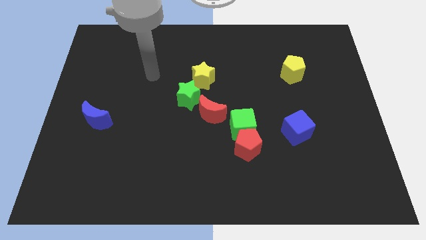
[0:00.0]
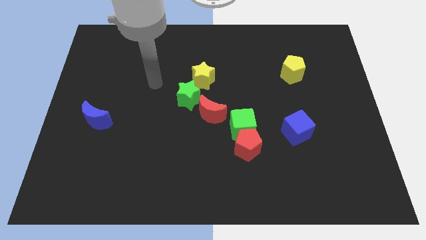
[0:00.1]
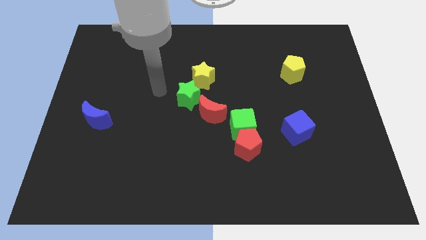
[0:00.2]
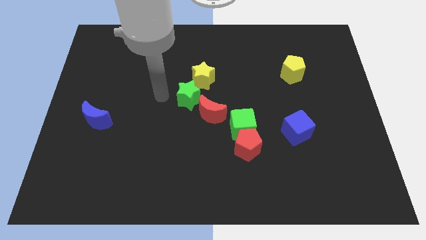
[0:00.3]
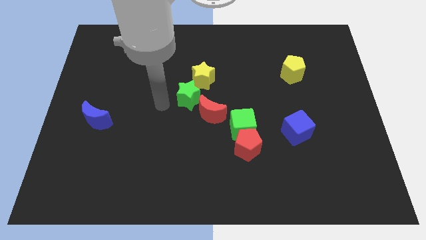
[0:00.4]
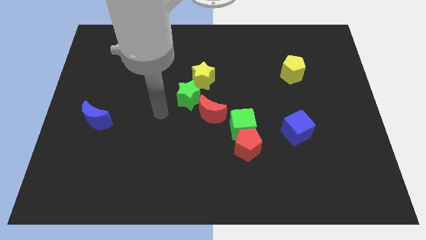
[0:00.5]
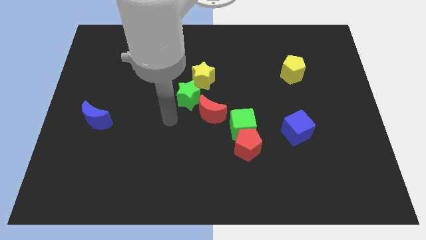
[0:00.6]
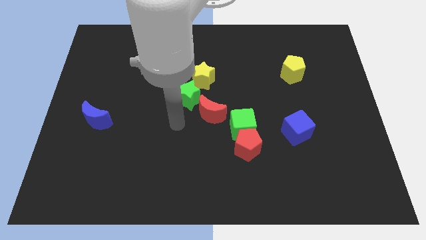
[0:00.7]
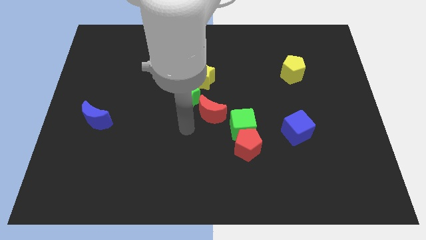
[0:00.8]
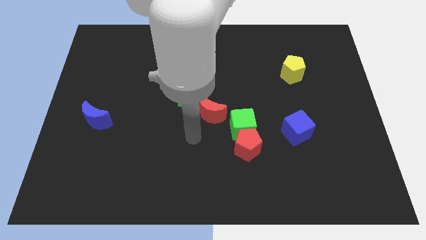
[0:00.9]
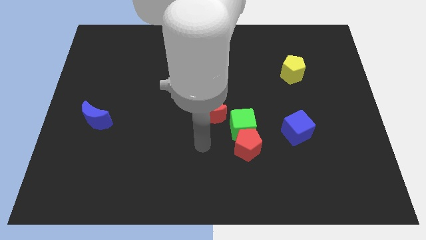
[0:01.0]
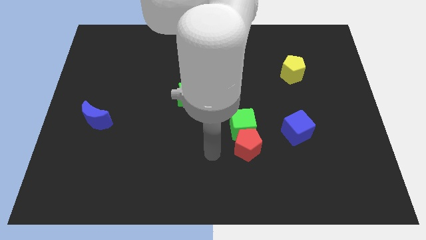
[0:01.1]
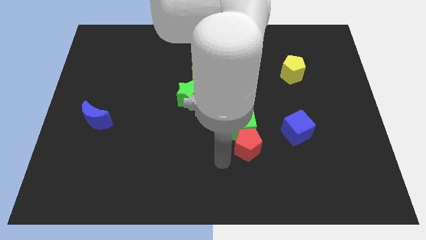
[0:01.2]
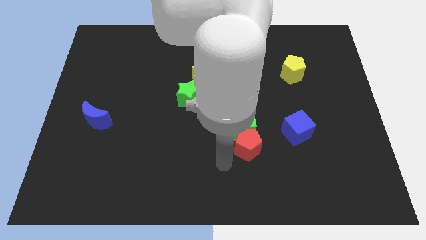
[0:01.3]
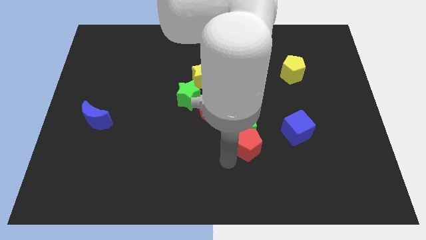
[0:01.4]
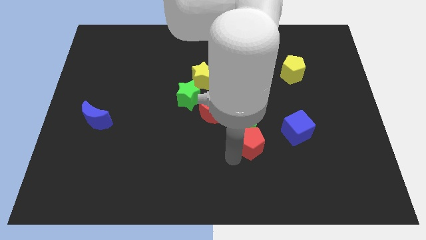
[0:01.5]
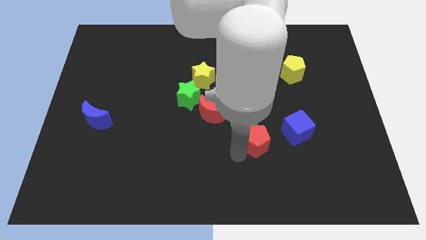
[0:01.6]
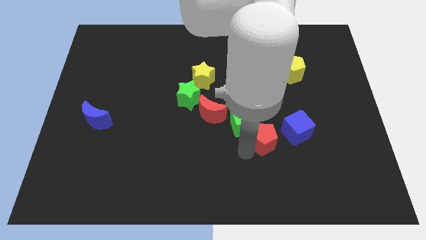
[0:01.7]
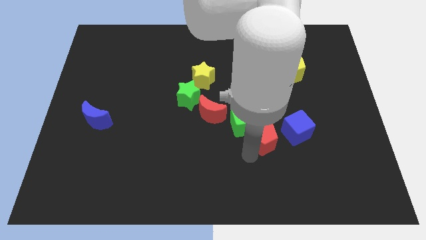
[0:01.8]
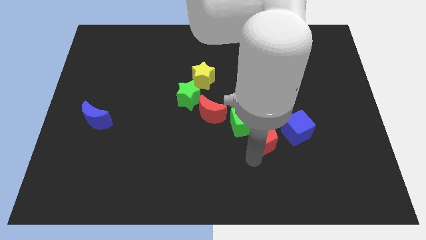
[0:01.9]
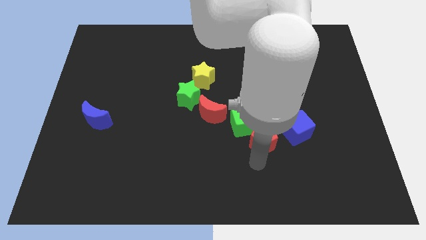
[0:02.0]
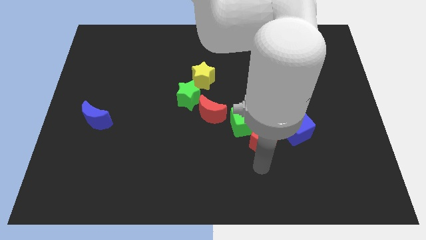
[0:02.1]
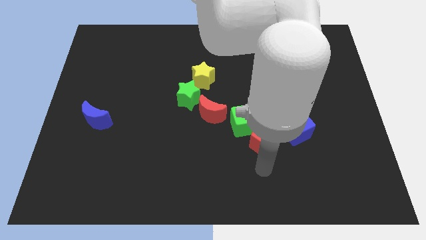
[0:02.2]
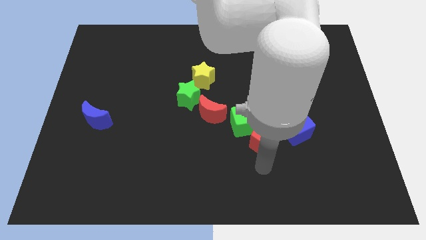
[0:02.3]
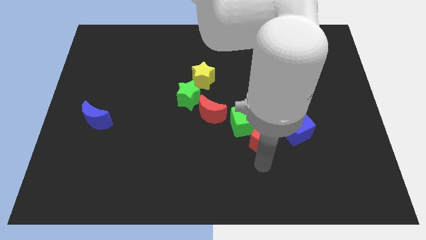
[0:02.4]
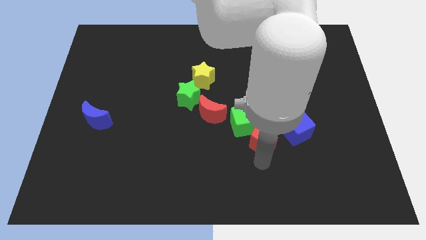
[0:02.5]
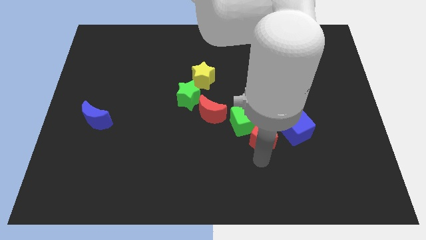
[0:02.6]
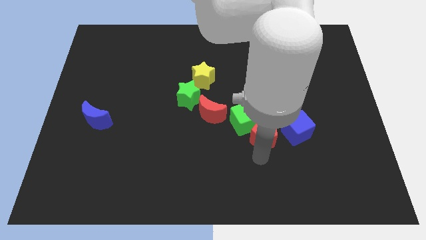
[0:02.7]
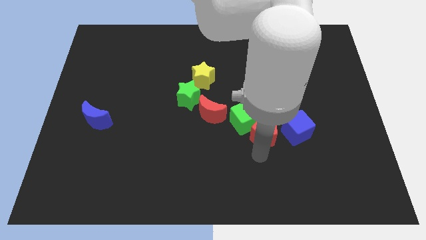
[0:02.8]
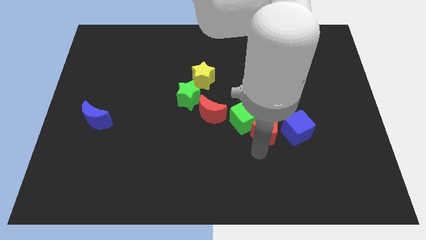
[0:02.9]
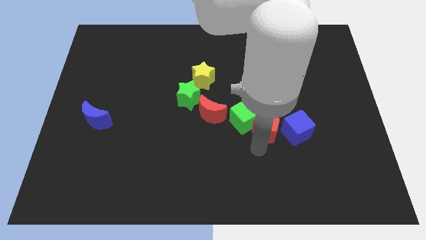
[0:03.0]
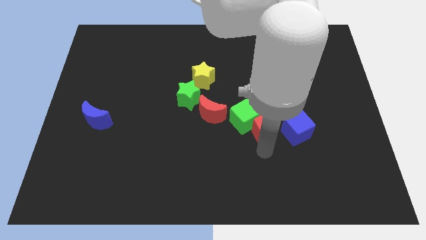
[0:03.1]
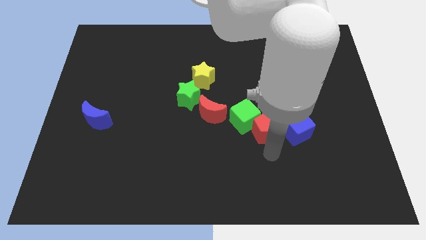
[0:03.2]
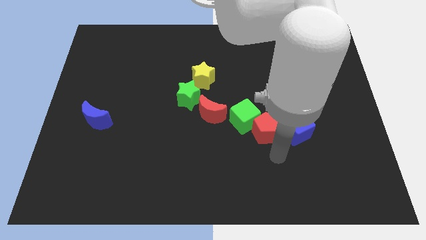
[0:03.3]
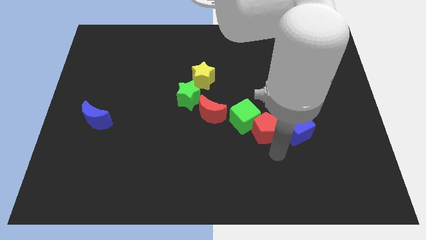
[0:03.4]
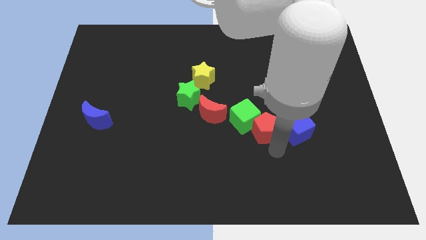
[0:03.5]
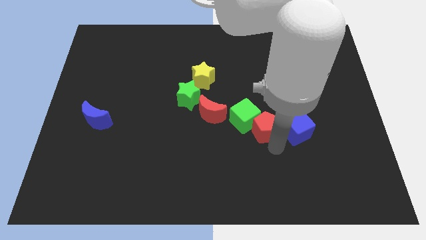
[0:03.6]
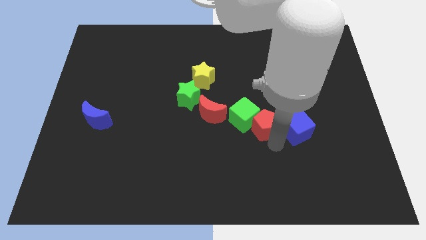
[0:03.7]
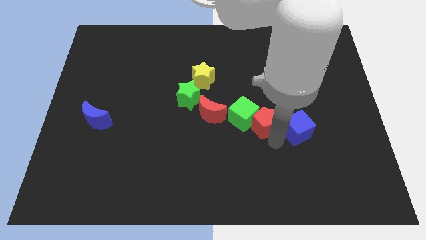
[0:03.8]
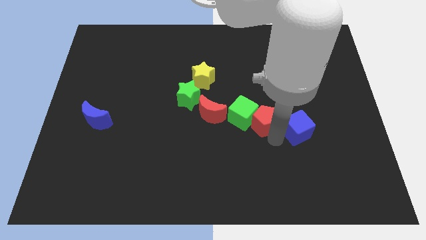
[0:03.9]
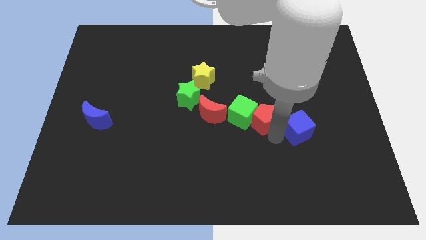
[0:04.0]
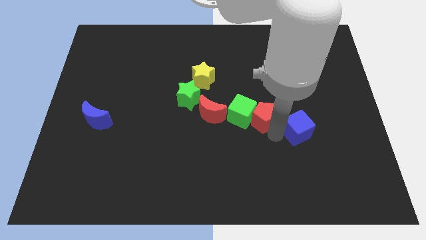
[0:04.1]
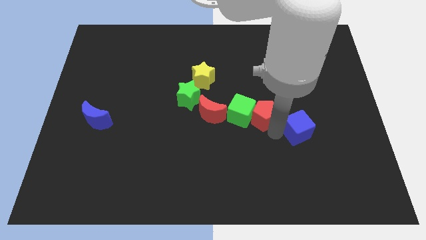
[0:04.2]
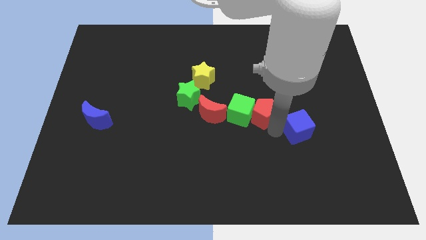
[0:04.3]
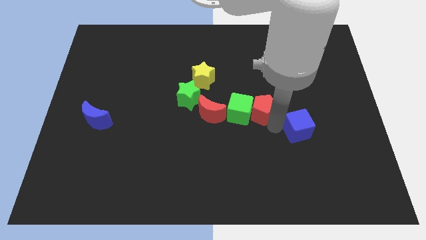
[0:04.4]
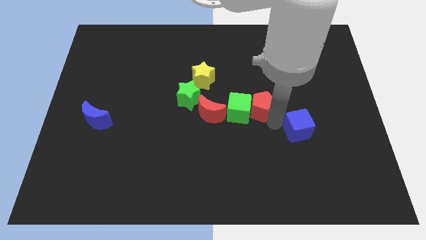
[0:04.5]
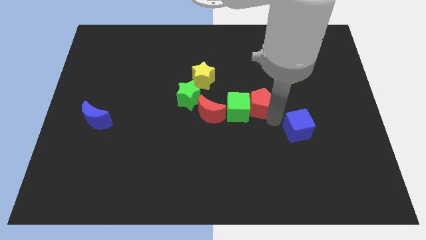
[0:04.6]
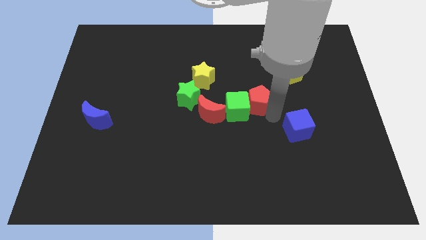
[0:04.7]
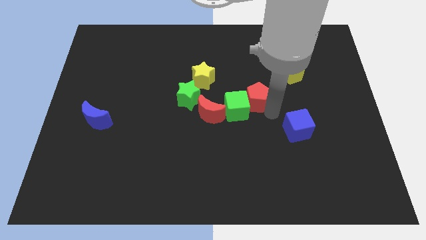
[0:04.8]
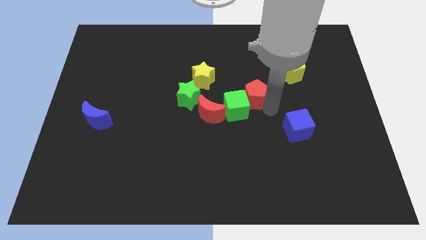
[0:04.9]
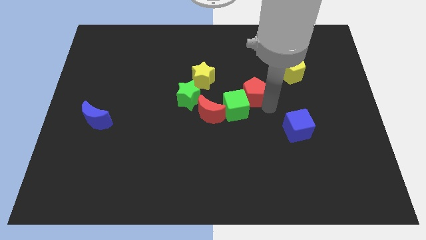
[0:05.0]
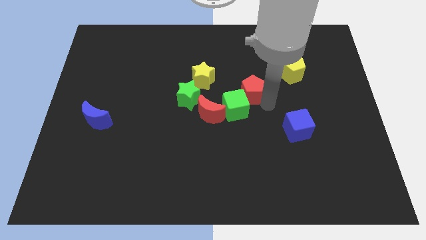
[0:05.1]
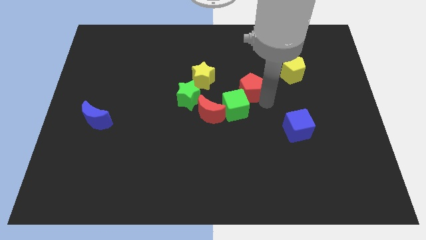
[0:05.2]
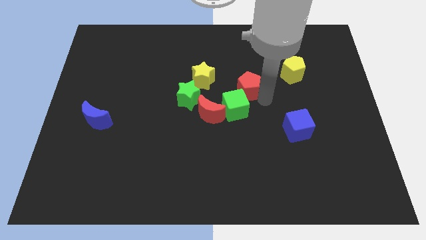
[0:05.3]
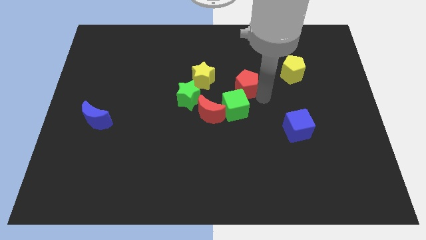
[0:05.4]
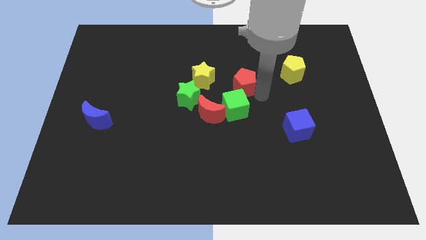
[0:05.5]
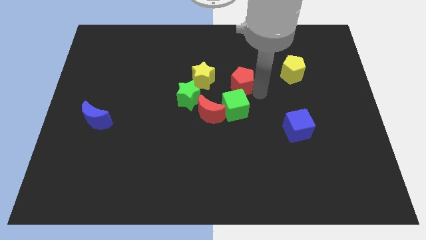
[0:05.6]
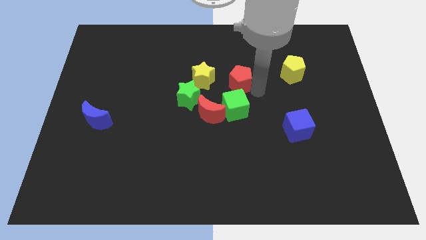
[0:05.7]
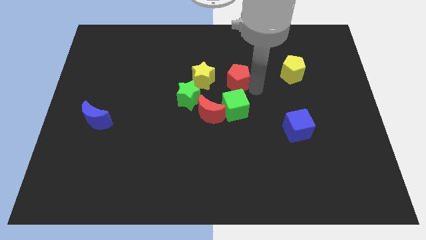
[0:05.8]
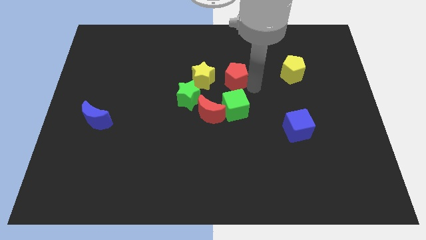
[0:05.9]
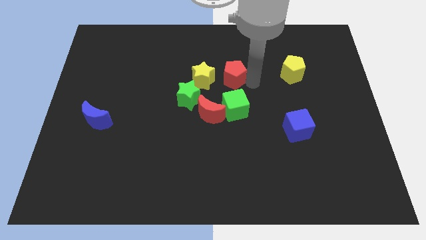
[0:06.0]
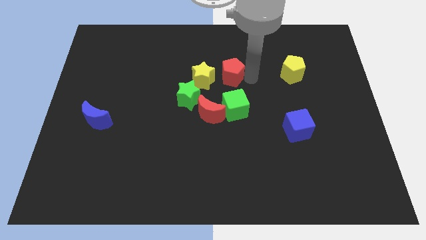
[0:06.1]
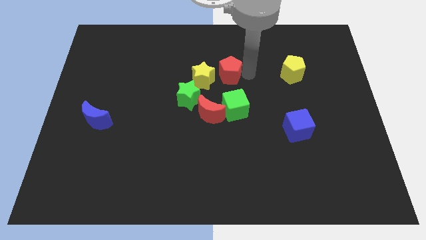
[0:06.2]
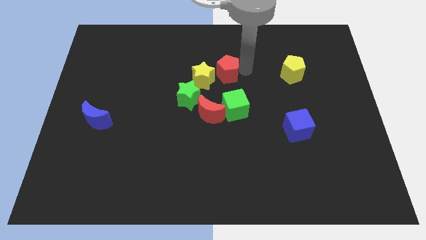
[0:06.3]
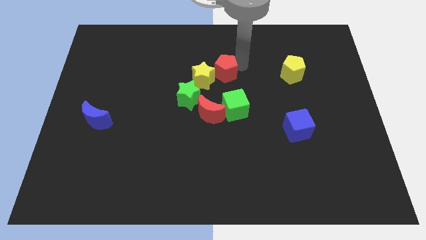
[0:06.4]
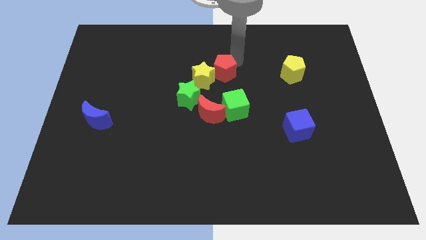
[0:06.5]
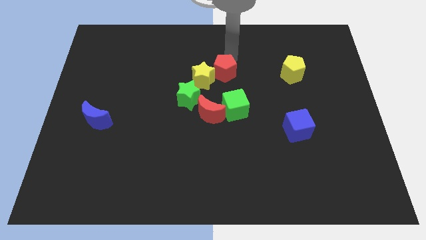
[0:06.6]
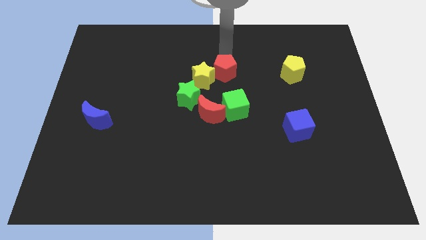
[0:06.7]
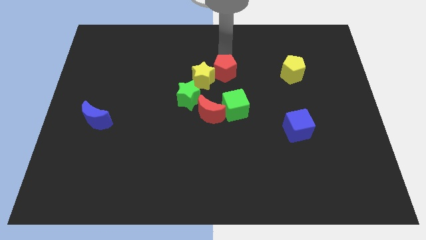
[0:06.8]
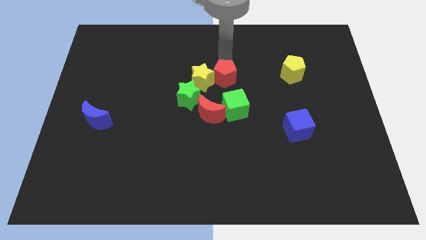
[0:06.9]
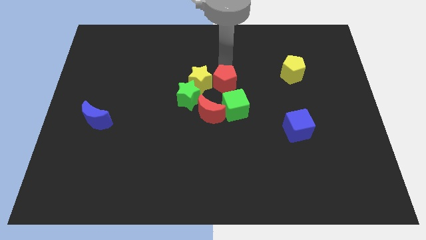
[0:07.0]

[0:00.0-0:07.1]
slide the red pentagon to the bottom right of the yellow star
